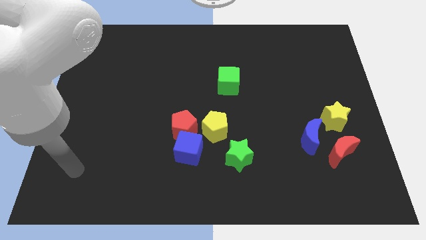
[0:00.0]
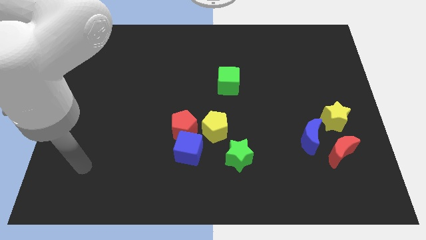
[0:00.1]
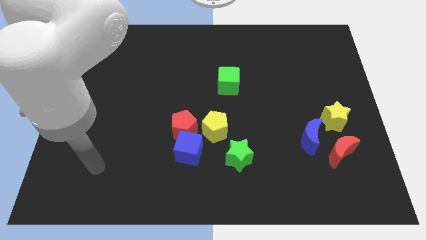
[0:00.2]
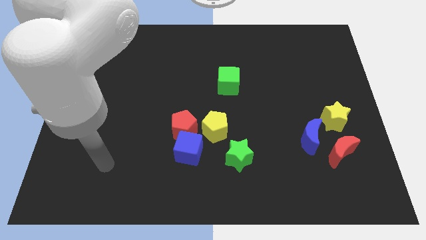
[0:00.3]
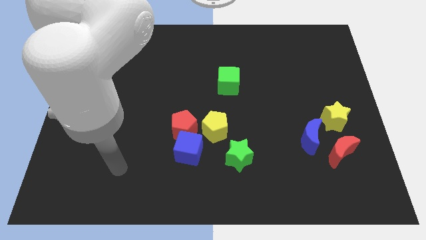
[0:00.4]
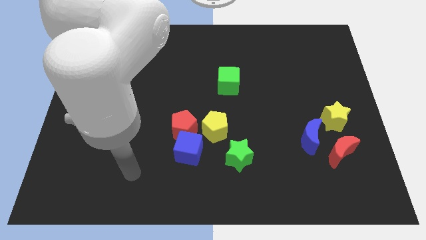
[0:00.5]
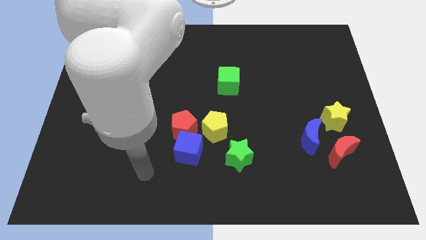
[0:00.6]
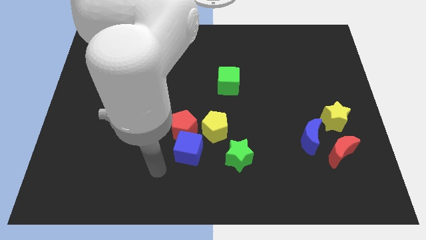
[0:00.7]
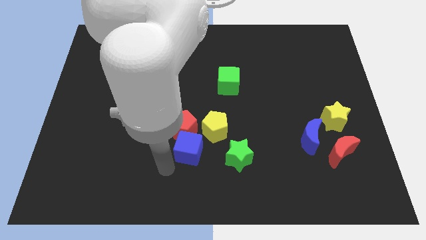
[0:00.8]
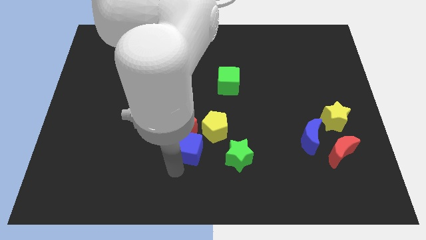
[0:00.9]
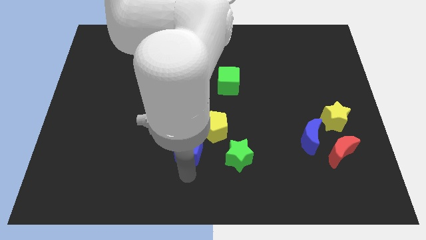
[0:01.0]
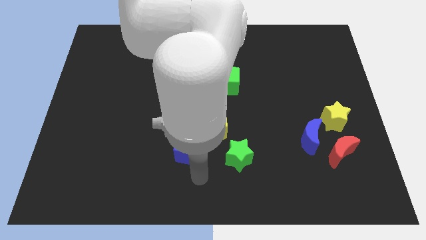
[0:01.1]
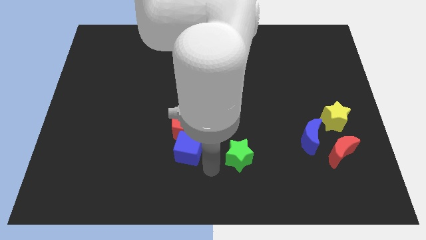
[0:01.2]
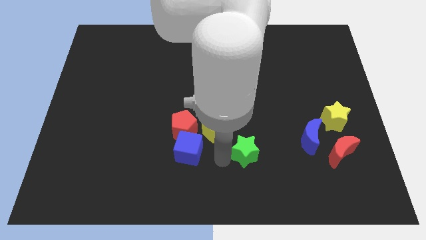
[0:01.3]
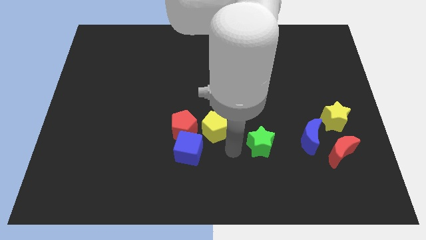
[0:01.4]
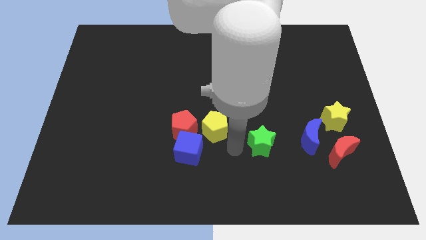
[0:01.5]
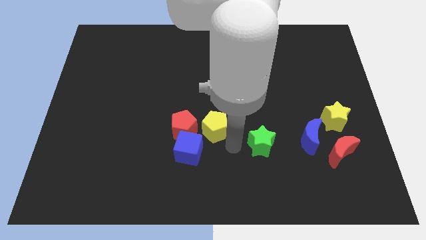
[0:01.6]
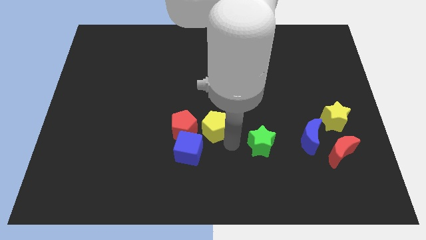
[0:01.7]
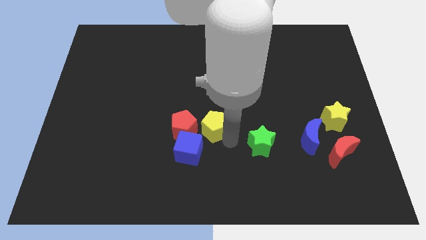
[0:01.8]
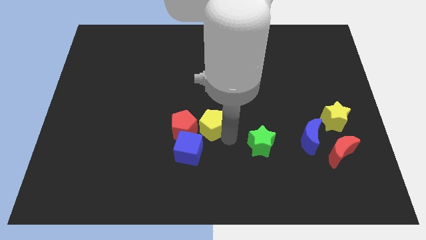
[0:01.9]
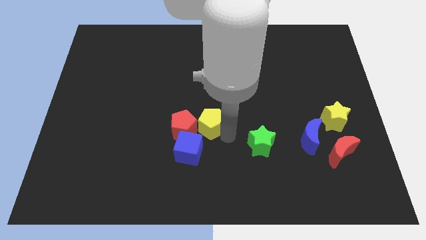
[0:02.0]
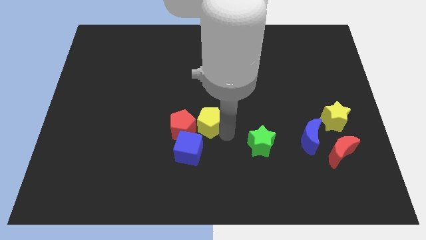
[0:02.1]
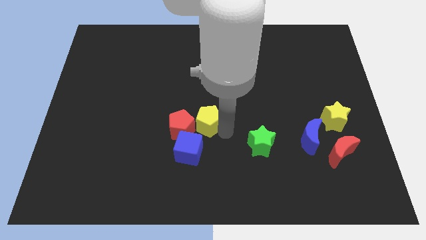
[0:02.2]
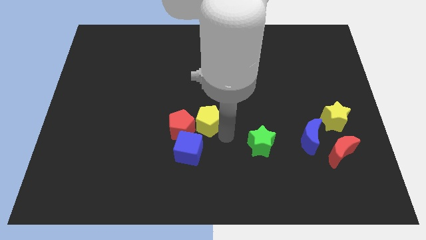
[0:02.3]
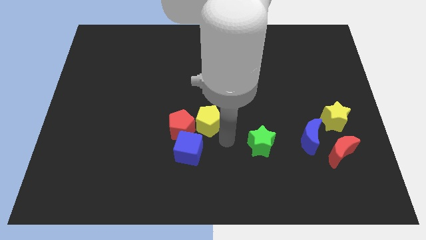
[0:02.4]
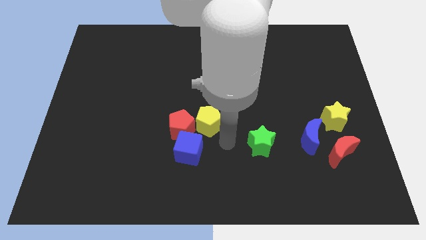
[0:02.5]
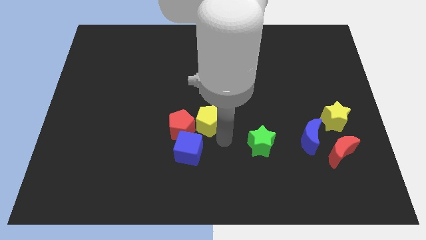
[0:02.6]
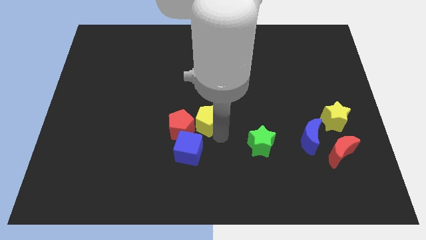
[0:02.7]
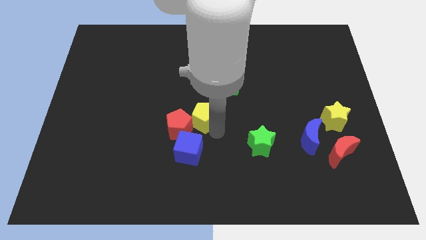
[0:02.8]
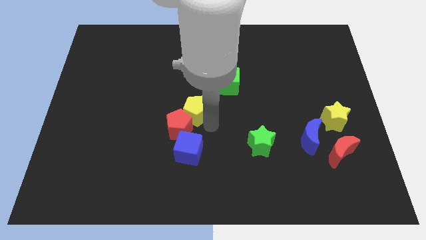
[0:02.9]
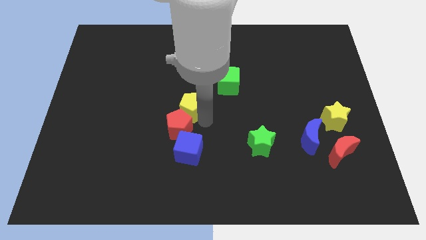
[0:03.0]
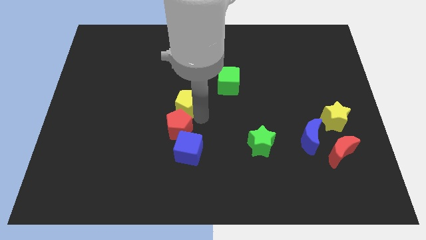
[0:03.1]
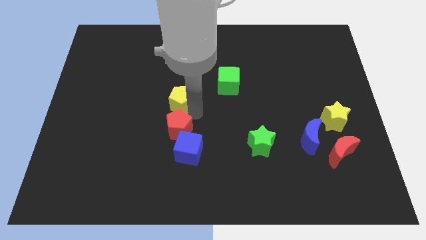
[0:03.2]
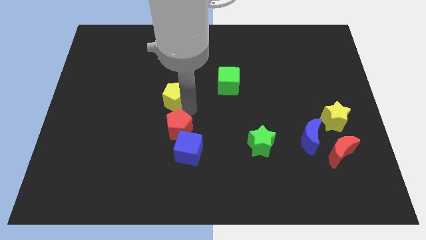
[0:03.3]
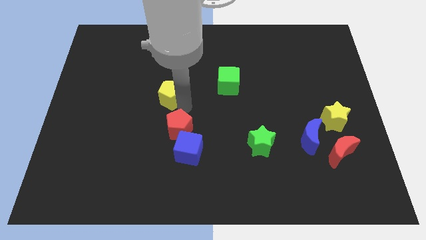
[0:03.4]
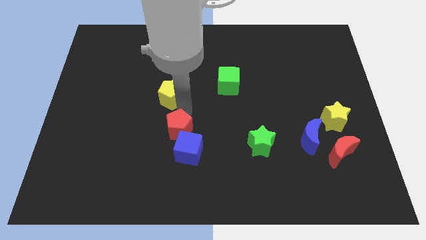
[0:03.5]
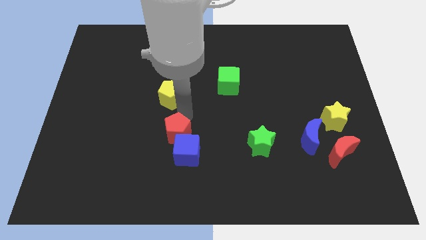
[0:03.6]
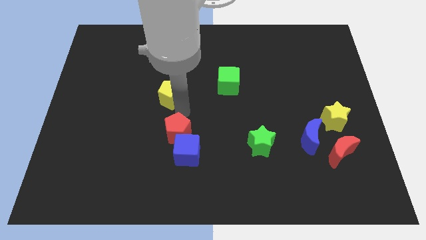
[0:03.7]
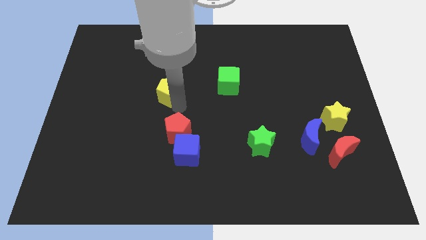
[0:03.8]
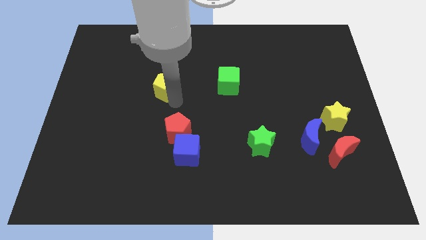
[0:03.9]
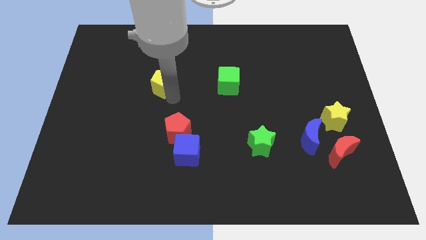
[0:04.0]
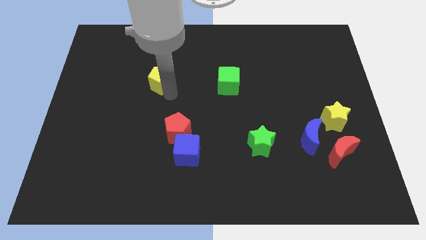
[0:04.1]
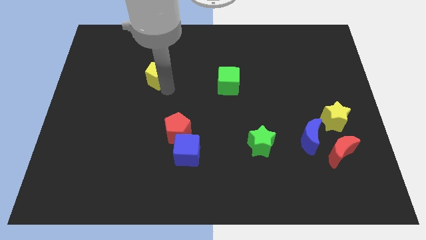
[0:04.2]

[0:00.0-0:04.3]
slide the yellow pentagon up and then to the left

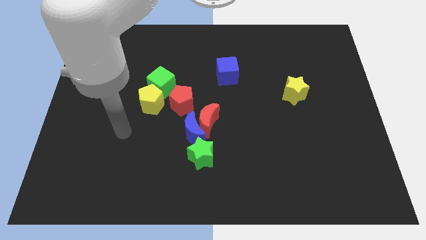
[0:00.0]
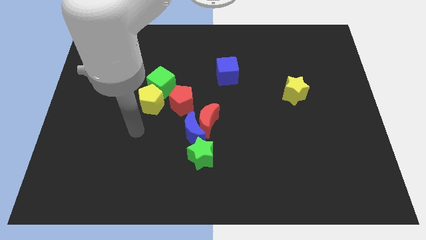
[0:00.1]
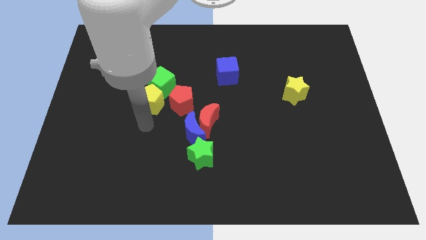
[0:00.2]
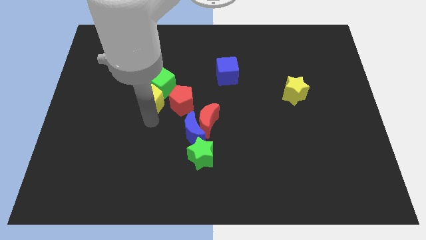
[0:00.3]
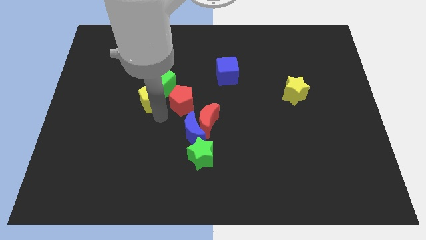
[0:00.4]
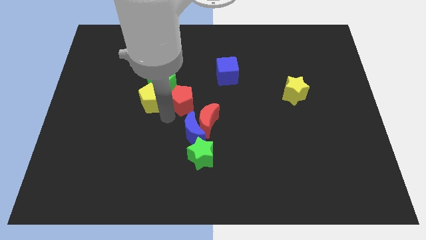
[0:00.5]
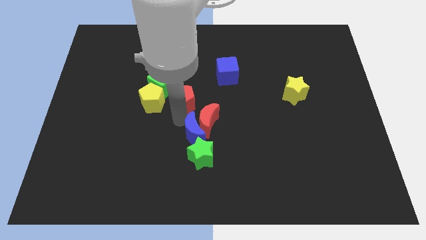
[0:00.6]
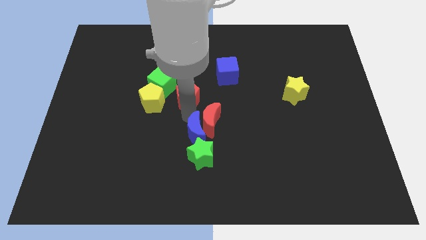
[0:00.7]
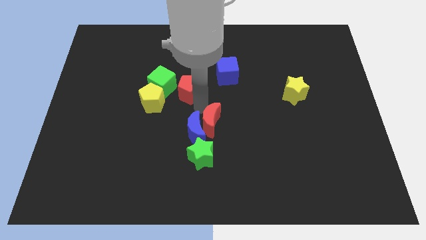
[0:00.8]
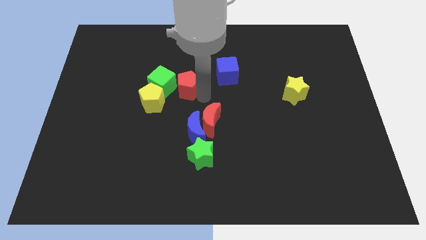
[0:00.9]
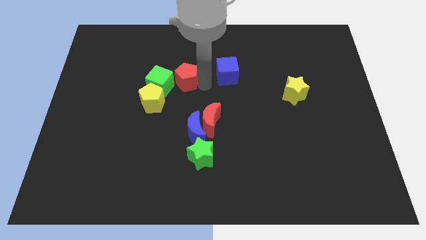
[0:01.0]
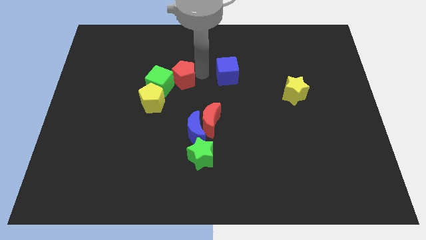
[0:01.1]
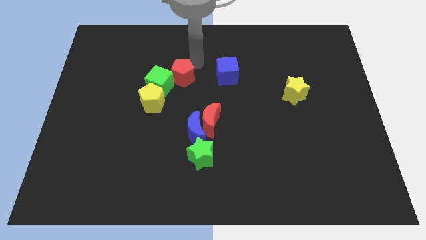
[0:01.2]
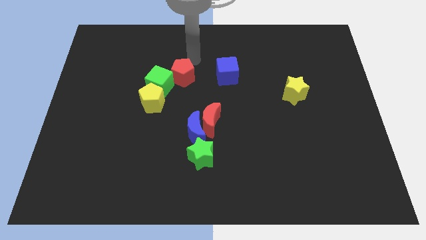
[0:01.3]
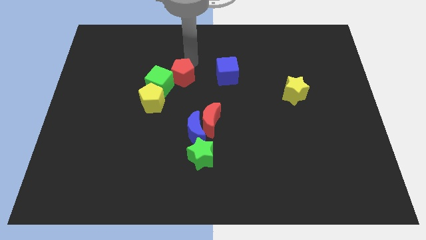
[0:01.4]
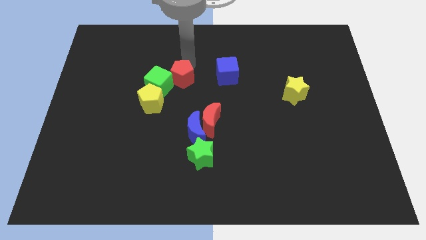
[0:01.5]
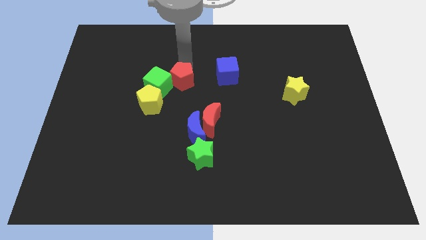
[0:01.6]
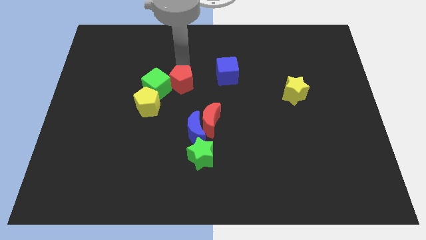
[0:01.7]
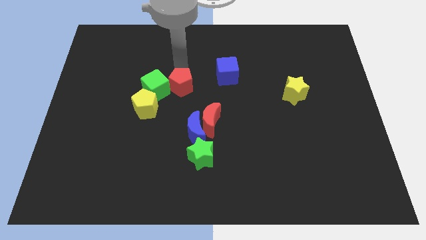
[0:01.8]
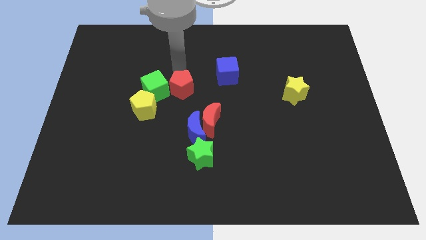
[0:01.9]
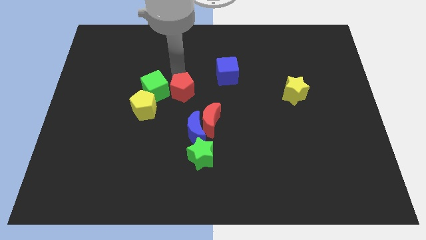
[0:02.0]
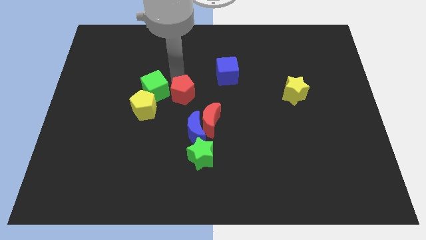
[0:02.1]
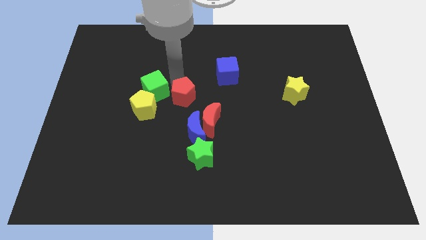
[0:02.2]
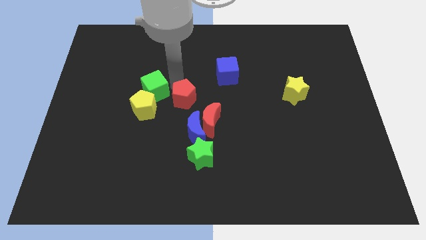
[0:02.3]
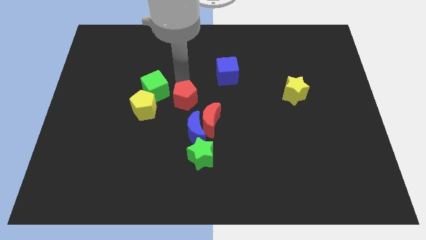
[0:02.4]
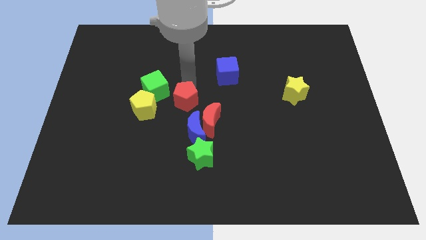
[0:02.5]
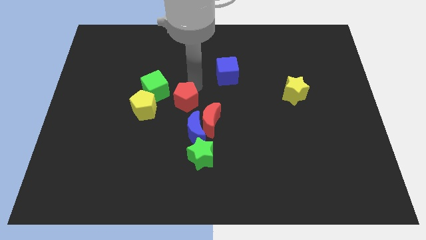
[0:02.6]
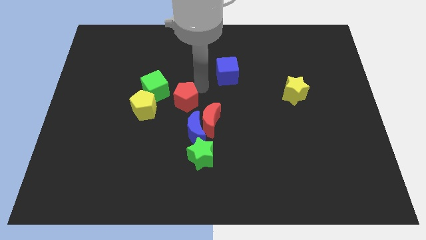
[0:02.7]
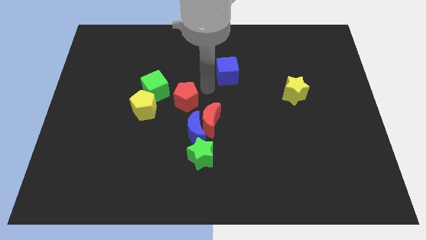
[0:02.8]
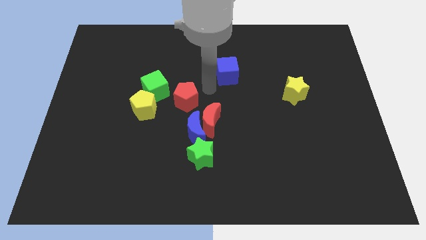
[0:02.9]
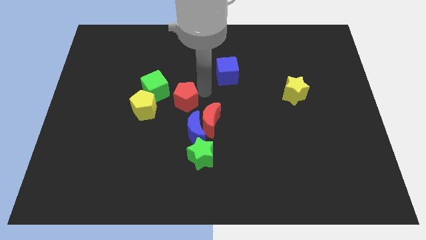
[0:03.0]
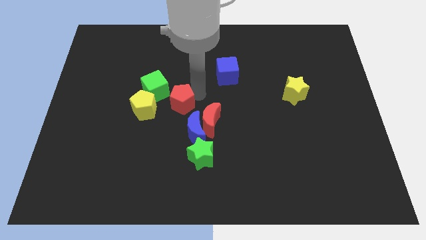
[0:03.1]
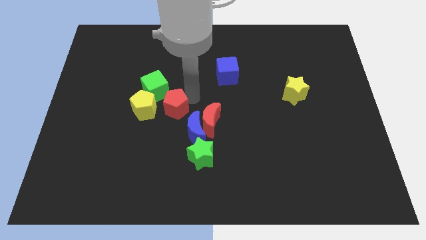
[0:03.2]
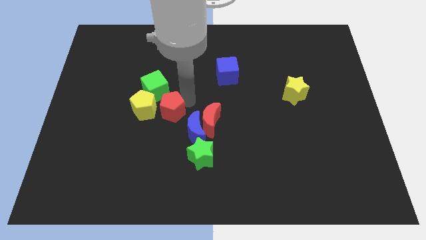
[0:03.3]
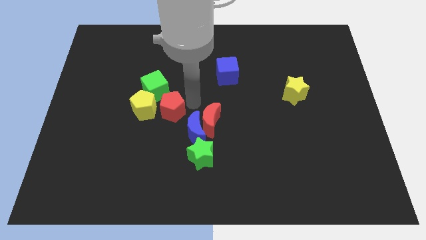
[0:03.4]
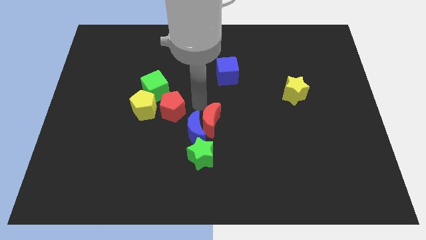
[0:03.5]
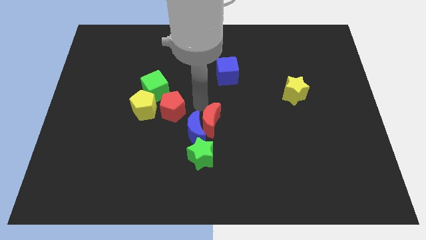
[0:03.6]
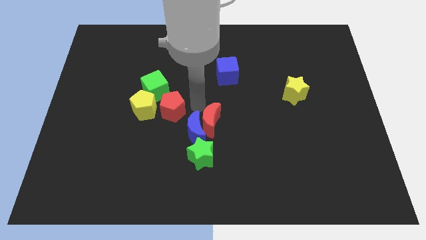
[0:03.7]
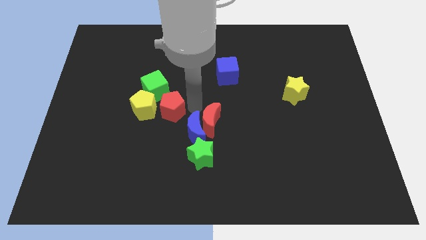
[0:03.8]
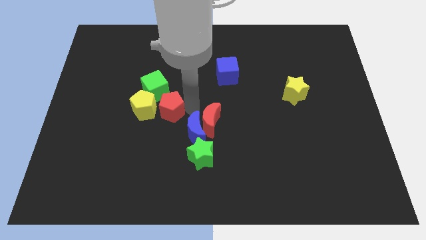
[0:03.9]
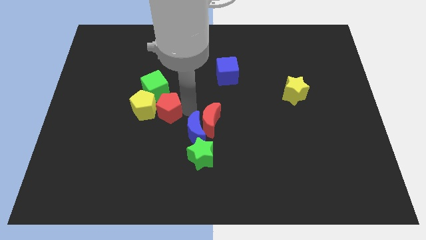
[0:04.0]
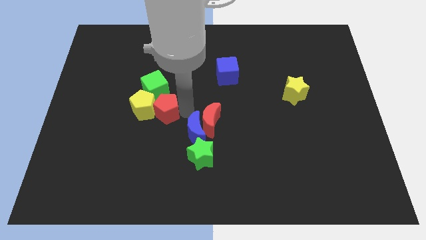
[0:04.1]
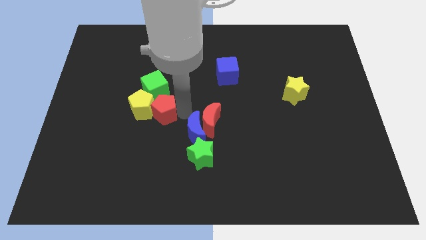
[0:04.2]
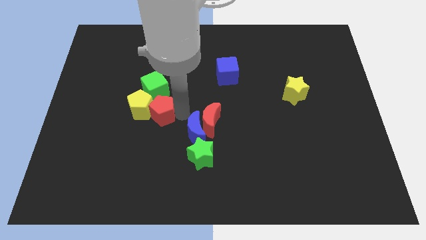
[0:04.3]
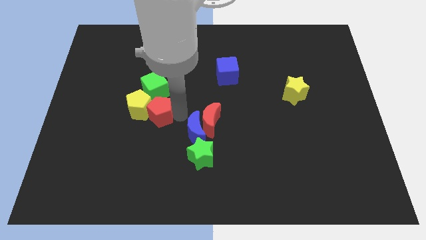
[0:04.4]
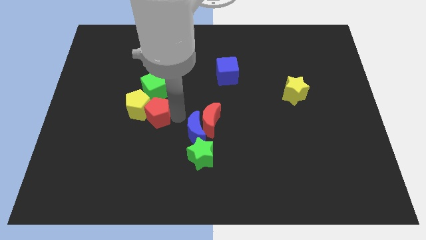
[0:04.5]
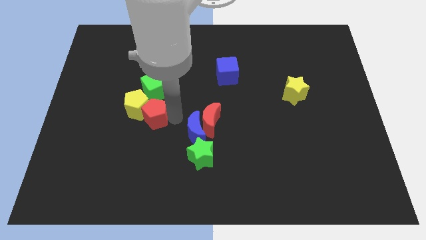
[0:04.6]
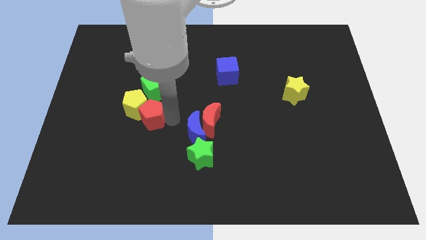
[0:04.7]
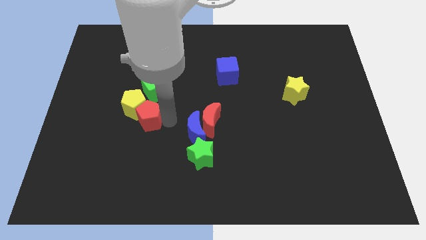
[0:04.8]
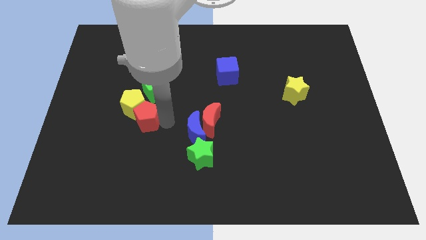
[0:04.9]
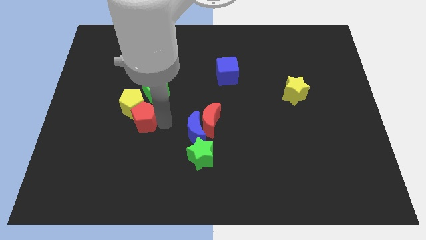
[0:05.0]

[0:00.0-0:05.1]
slightly push the red pentagon to the left
